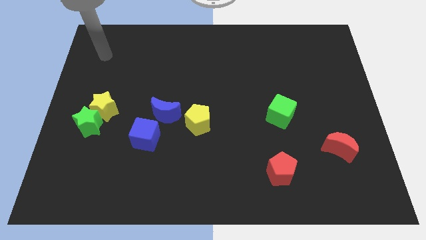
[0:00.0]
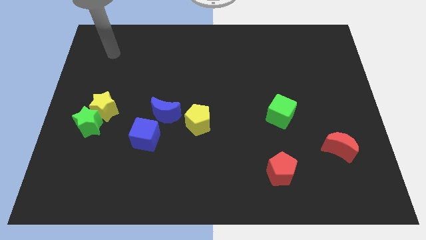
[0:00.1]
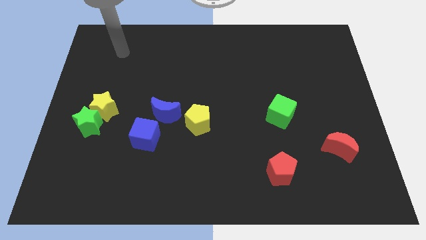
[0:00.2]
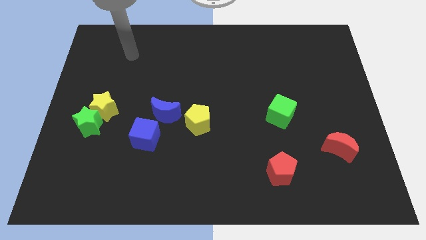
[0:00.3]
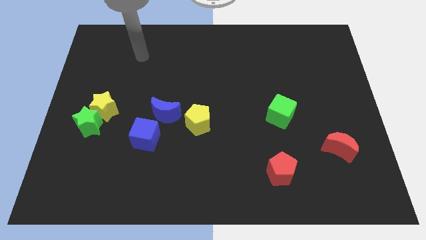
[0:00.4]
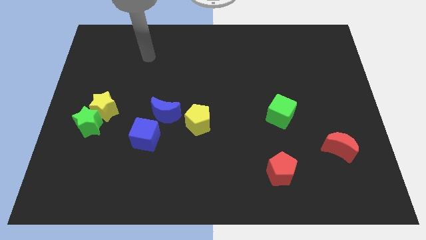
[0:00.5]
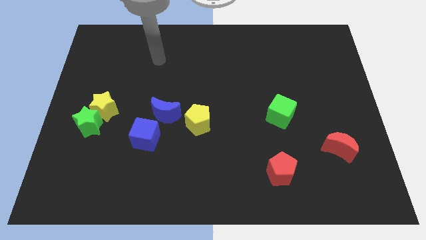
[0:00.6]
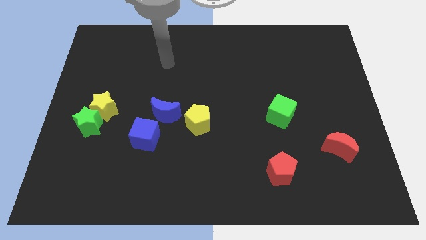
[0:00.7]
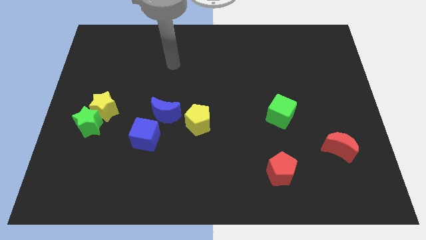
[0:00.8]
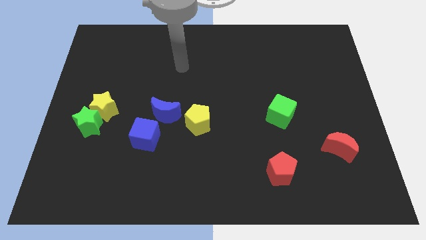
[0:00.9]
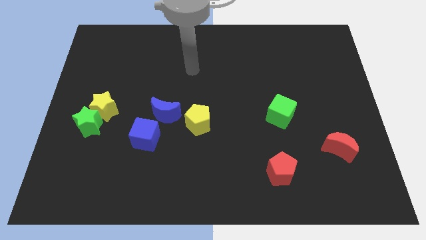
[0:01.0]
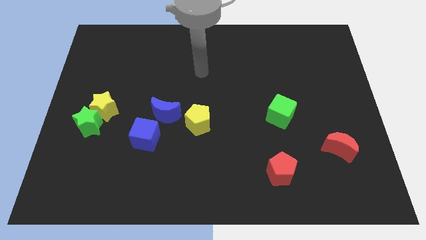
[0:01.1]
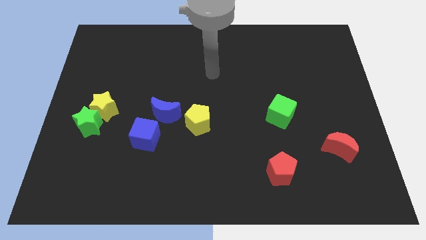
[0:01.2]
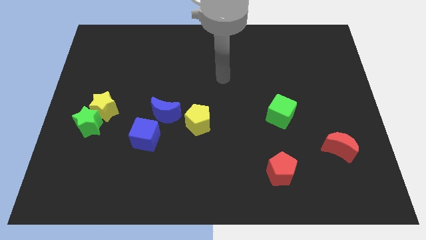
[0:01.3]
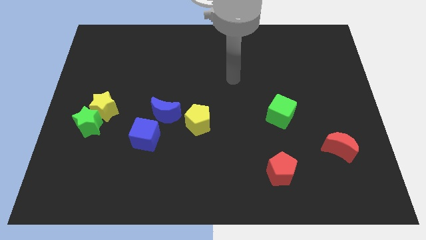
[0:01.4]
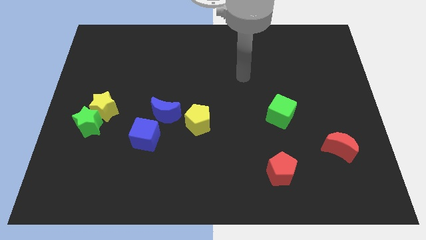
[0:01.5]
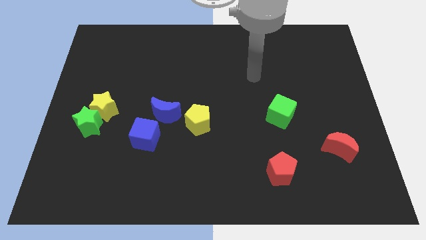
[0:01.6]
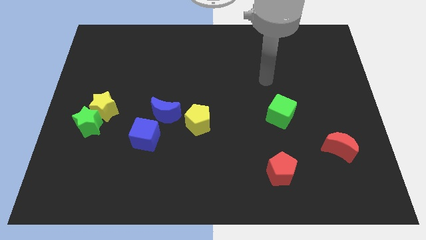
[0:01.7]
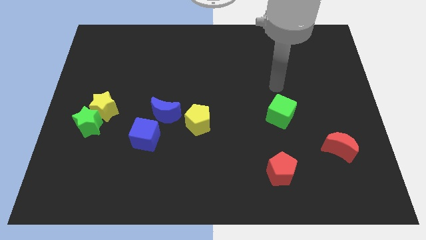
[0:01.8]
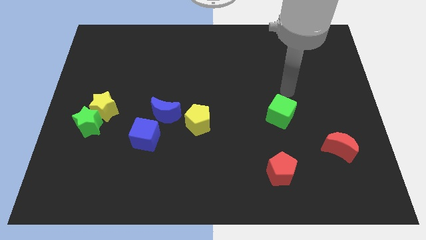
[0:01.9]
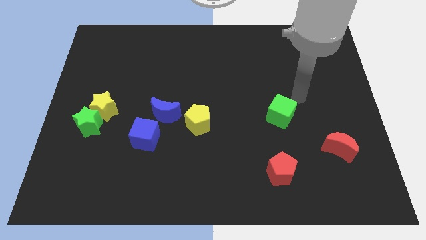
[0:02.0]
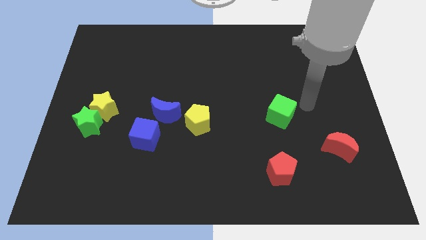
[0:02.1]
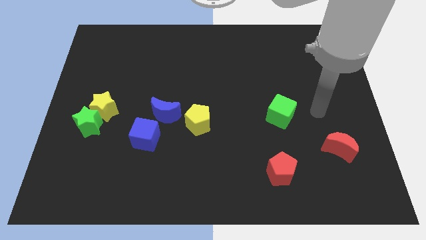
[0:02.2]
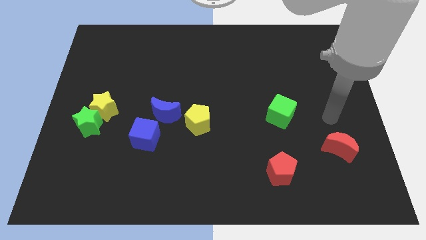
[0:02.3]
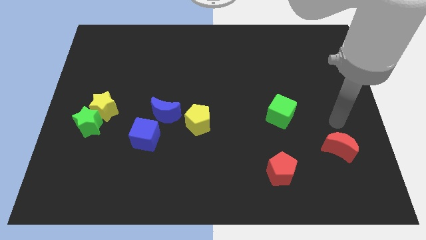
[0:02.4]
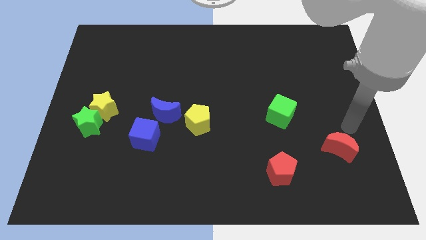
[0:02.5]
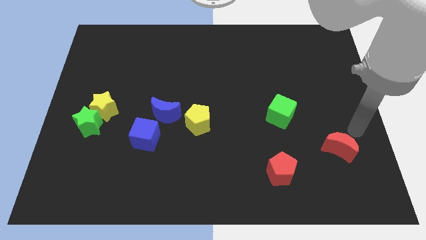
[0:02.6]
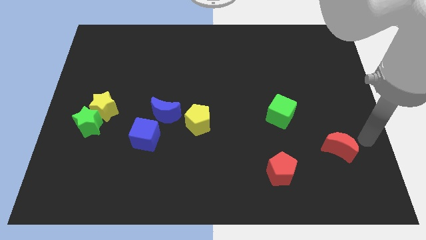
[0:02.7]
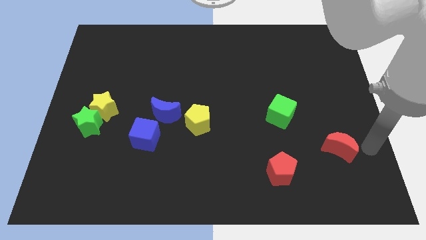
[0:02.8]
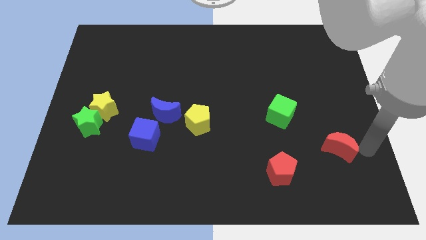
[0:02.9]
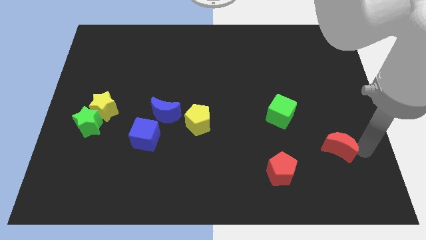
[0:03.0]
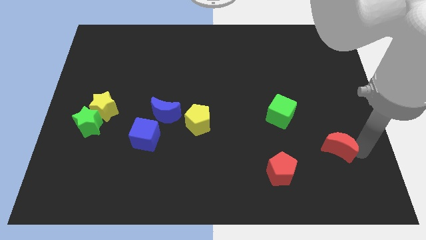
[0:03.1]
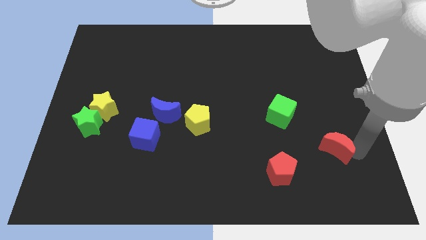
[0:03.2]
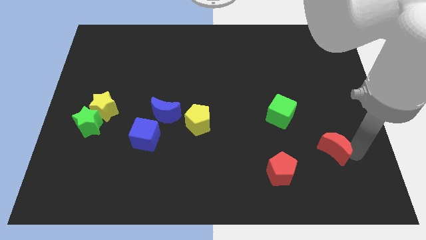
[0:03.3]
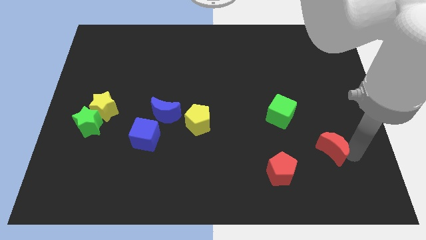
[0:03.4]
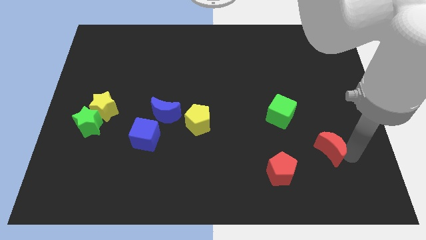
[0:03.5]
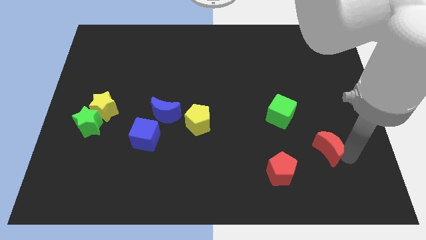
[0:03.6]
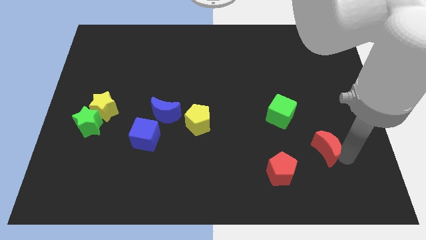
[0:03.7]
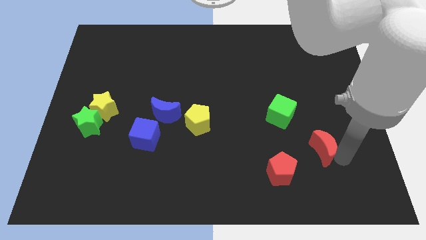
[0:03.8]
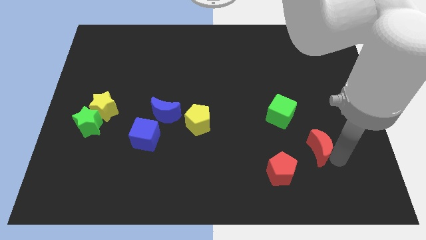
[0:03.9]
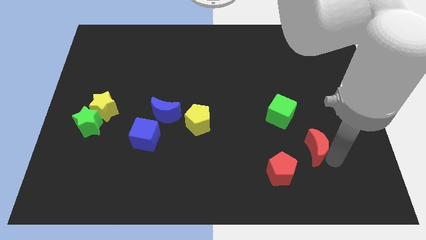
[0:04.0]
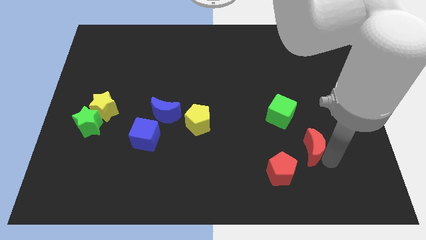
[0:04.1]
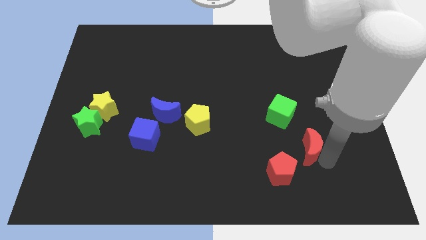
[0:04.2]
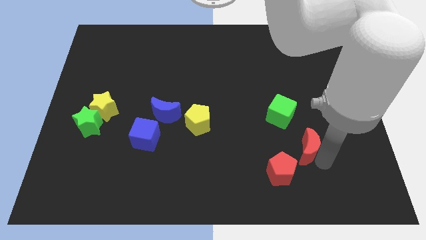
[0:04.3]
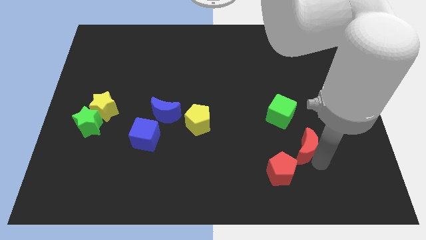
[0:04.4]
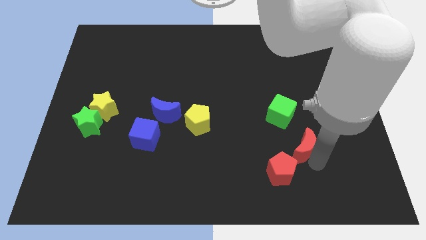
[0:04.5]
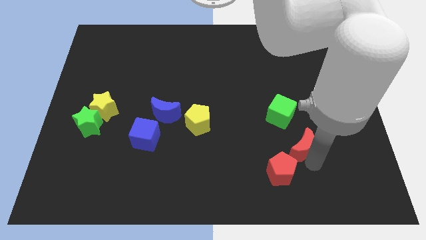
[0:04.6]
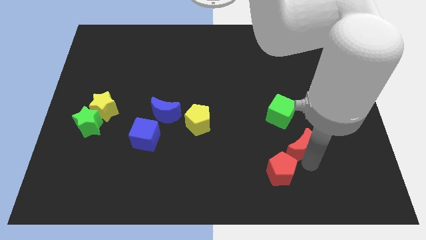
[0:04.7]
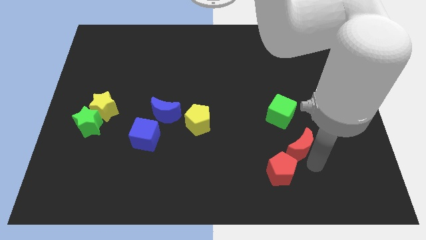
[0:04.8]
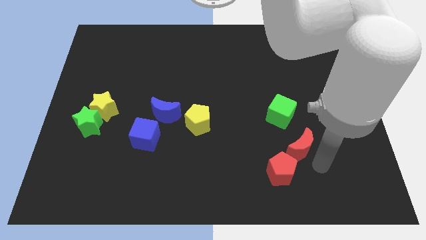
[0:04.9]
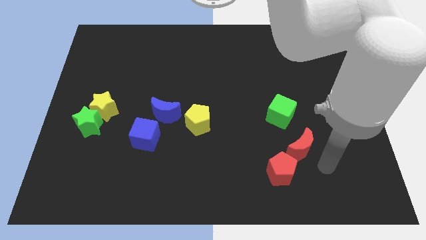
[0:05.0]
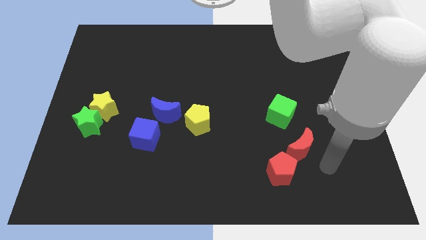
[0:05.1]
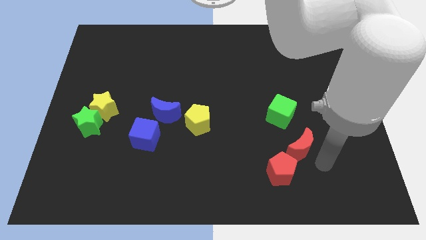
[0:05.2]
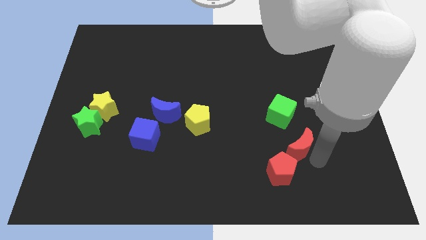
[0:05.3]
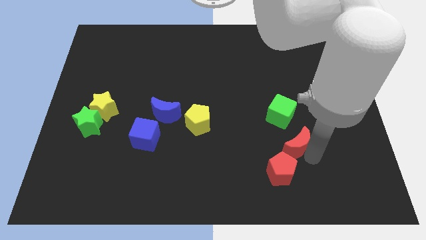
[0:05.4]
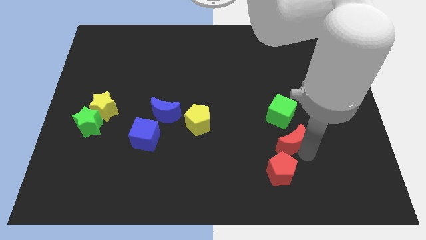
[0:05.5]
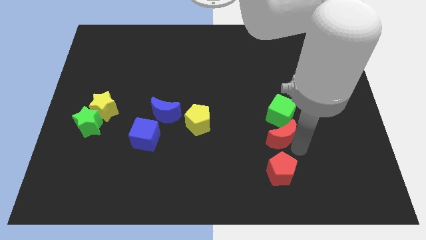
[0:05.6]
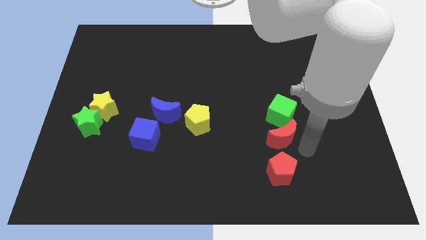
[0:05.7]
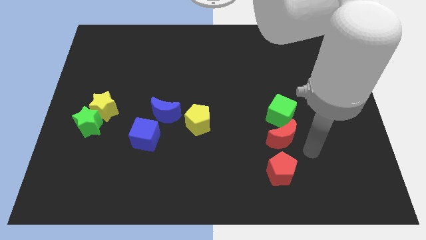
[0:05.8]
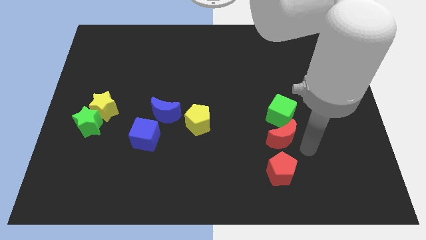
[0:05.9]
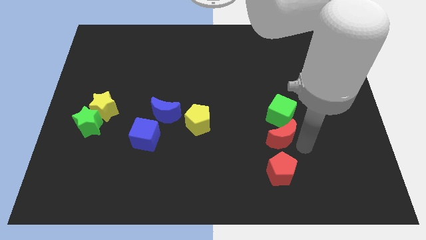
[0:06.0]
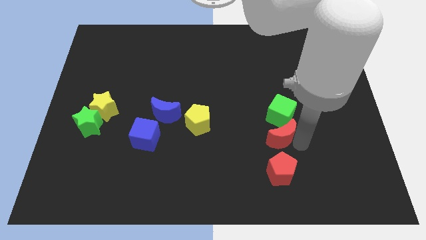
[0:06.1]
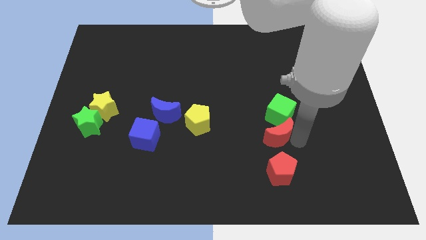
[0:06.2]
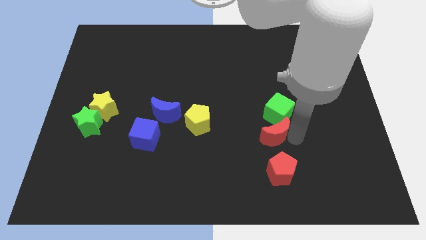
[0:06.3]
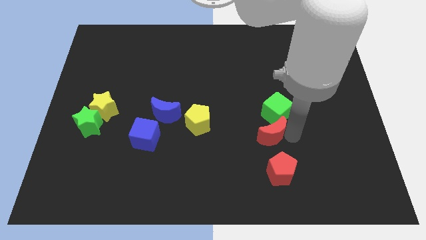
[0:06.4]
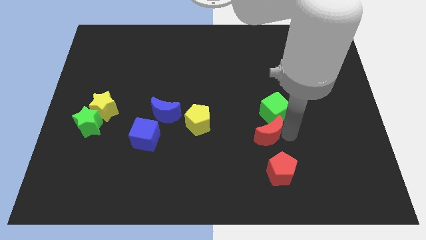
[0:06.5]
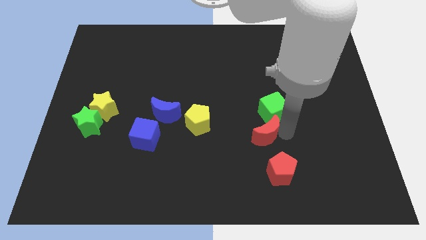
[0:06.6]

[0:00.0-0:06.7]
slide the red moon just right of the yellow pentagon

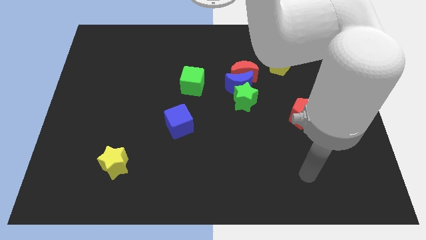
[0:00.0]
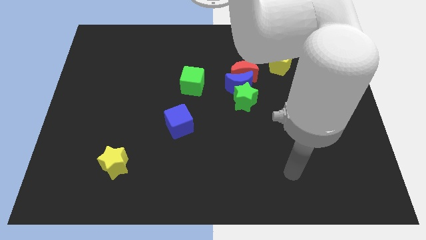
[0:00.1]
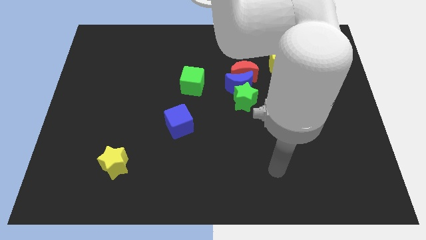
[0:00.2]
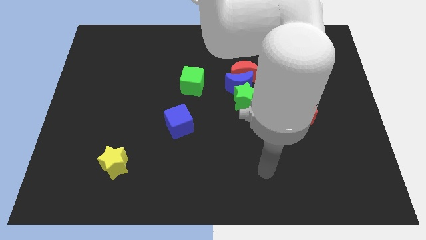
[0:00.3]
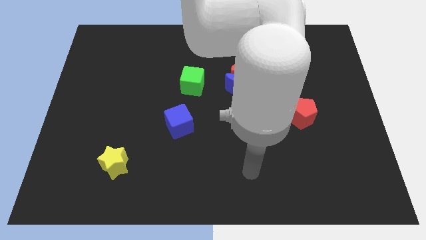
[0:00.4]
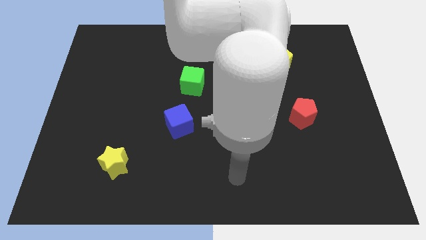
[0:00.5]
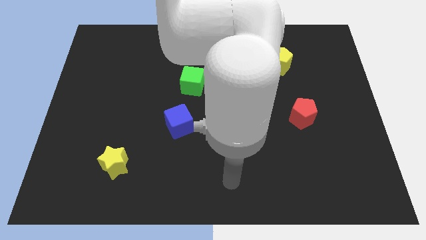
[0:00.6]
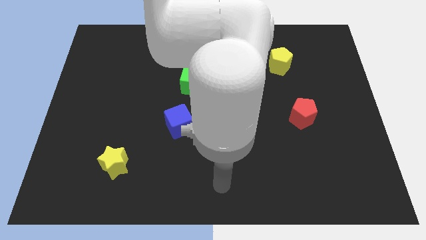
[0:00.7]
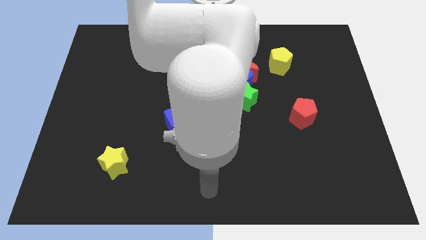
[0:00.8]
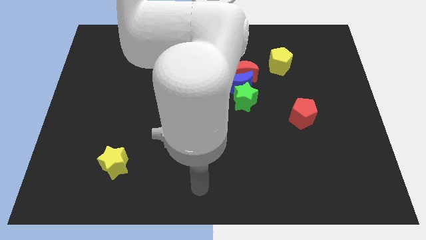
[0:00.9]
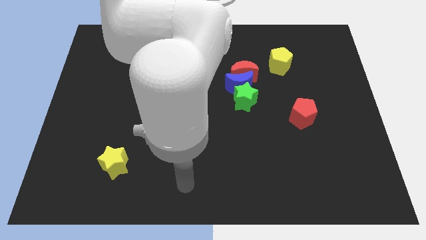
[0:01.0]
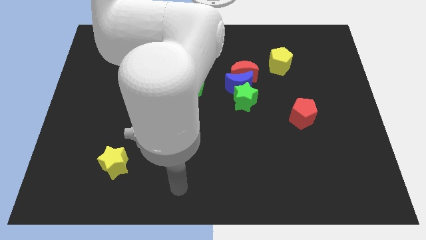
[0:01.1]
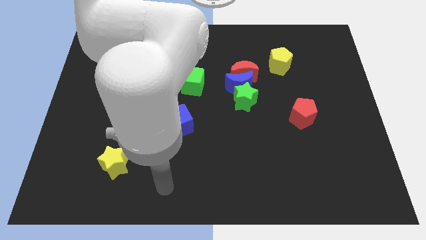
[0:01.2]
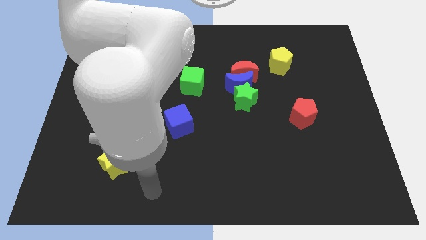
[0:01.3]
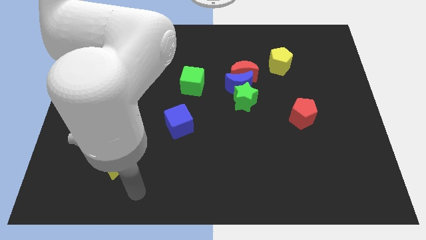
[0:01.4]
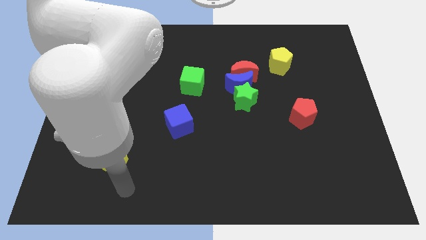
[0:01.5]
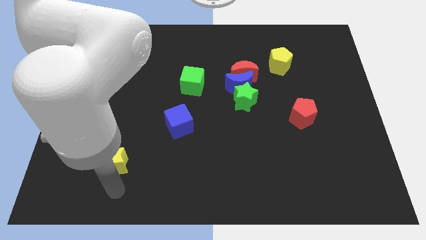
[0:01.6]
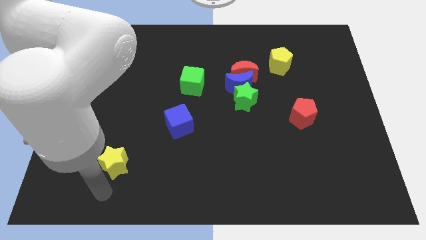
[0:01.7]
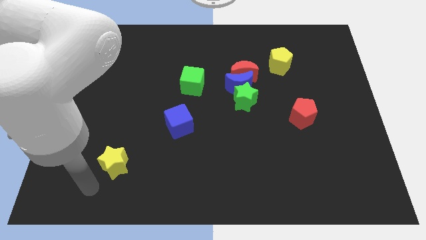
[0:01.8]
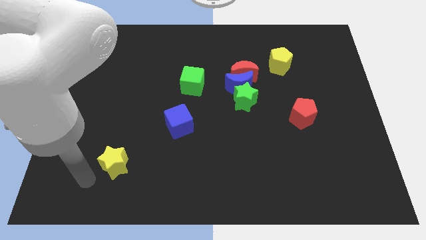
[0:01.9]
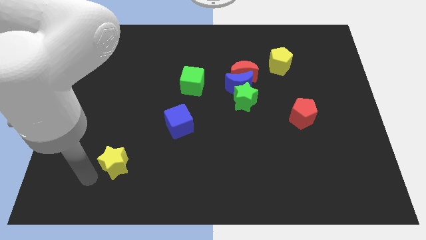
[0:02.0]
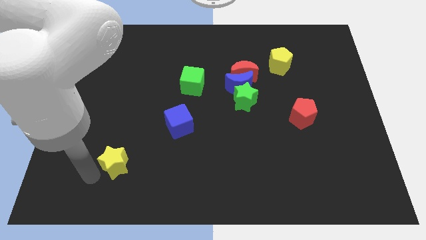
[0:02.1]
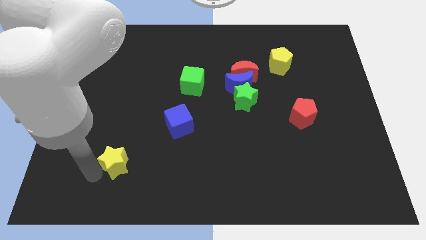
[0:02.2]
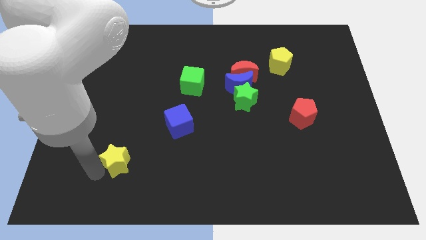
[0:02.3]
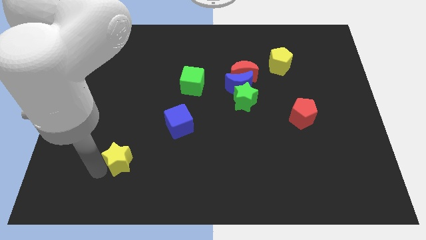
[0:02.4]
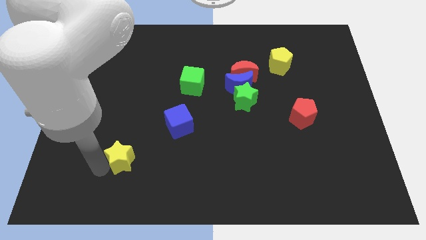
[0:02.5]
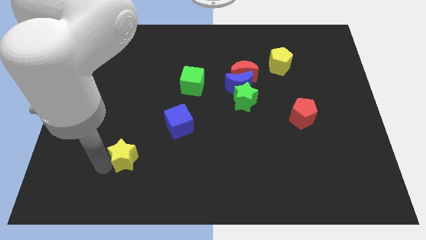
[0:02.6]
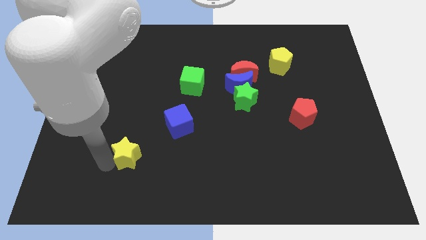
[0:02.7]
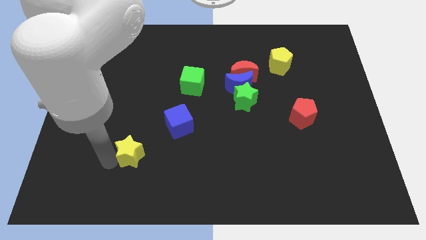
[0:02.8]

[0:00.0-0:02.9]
move the yellow star diagonally down and to the left of the blue cube
